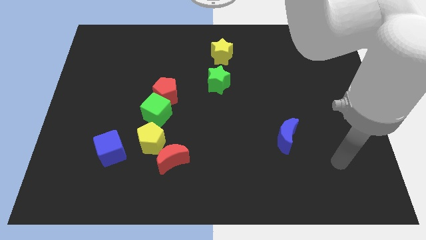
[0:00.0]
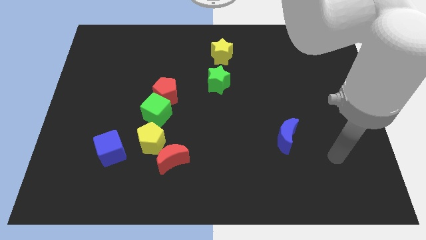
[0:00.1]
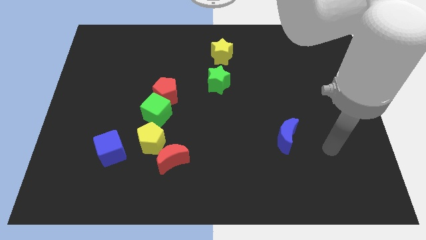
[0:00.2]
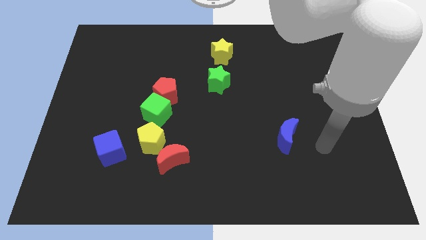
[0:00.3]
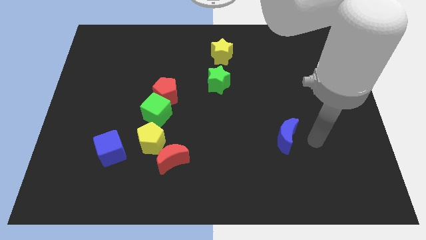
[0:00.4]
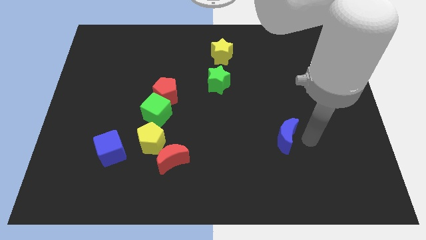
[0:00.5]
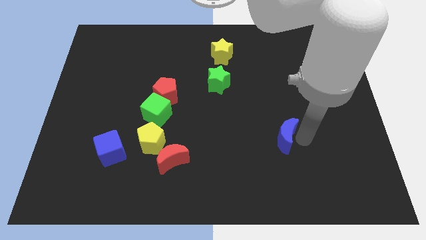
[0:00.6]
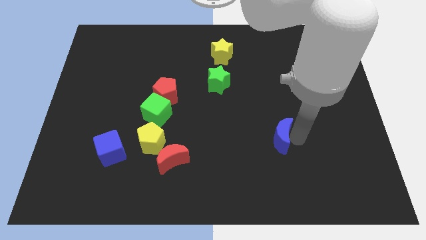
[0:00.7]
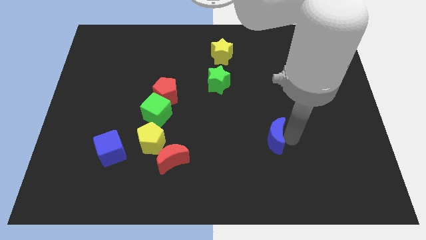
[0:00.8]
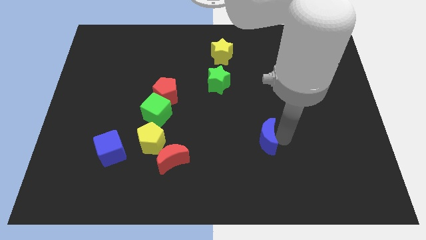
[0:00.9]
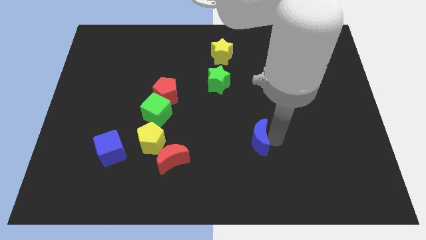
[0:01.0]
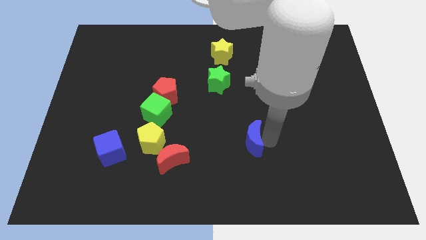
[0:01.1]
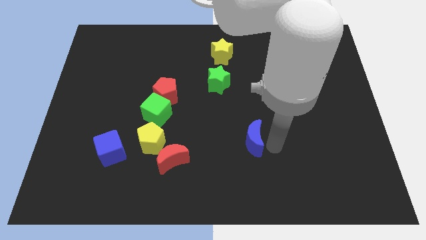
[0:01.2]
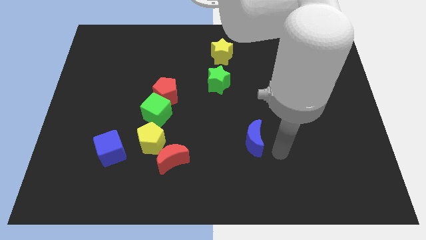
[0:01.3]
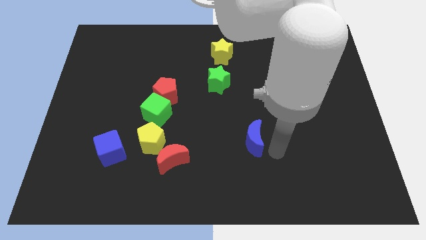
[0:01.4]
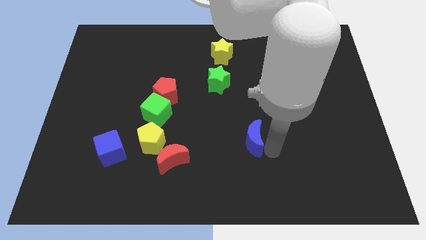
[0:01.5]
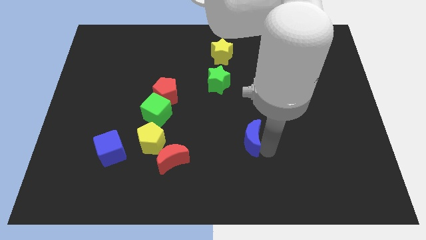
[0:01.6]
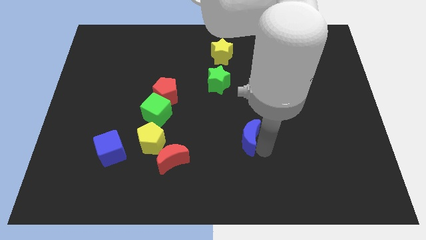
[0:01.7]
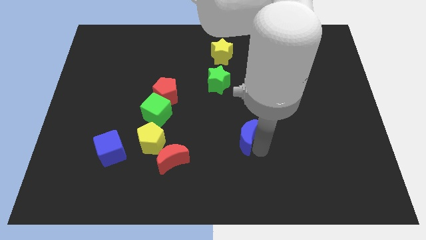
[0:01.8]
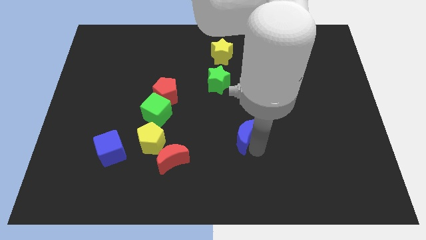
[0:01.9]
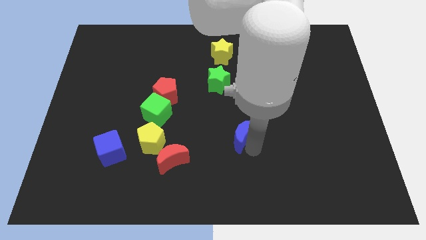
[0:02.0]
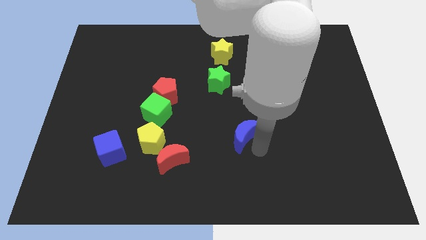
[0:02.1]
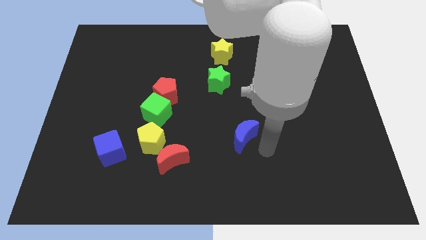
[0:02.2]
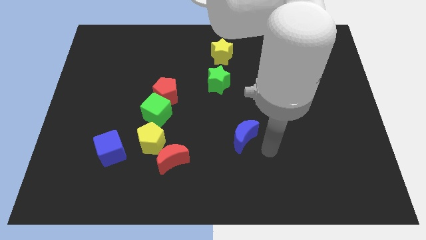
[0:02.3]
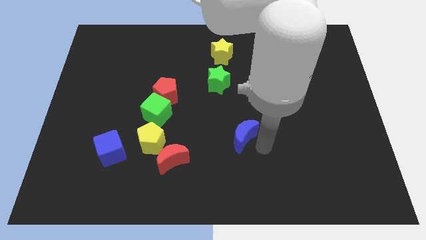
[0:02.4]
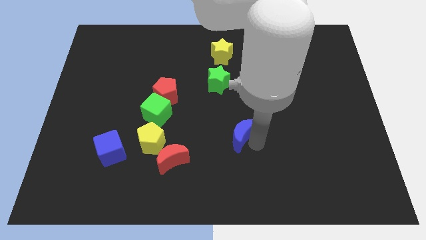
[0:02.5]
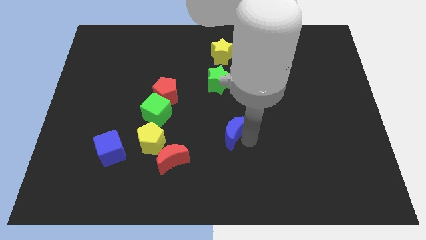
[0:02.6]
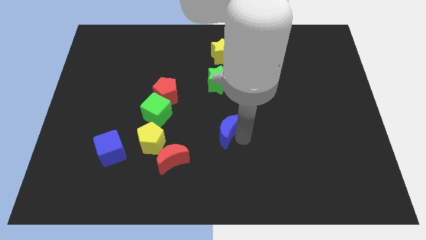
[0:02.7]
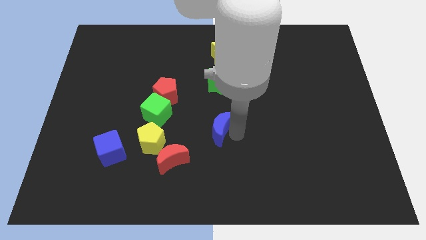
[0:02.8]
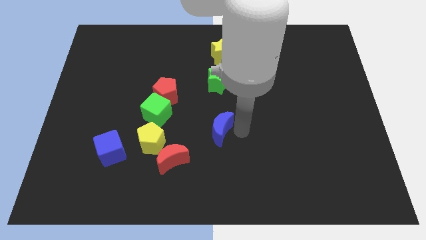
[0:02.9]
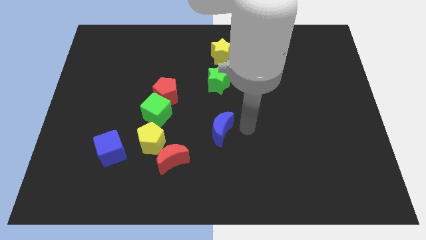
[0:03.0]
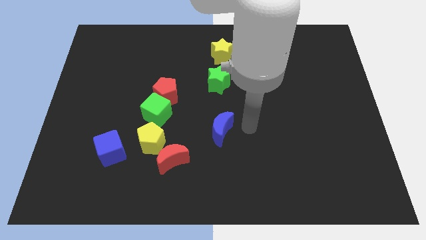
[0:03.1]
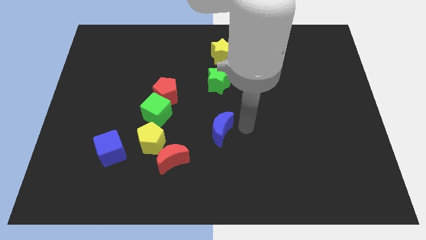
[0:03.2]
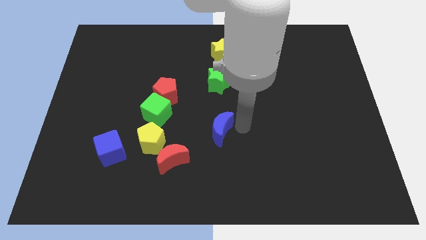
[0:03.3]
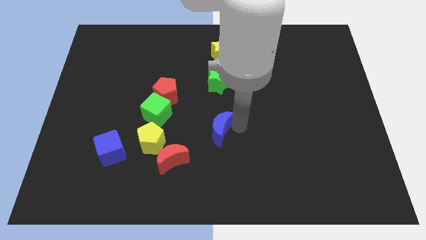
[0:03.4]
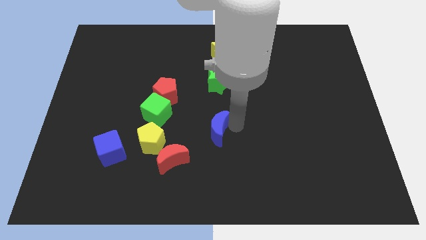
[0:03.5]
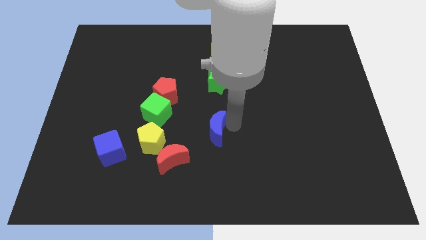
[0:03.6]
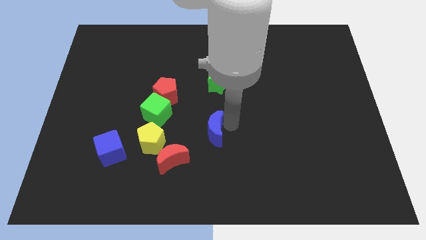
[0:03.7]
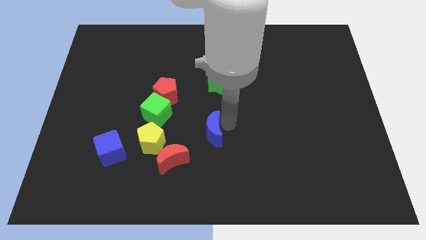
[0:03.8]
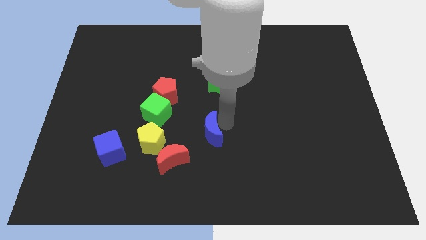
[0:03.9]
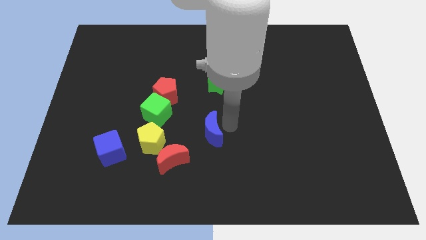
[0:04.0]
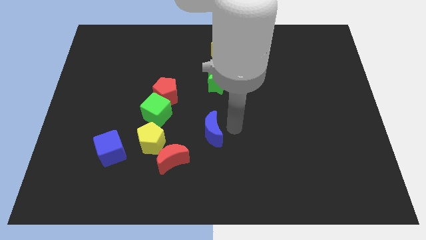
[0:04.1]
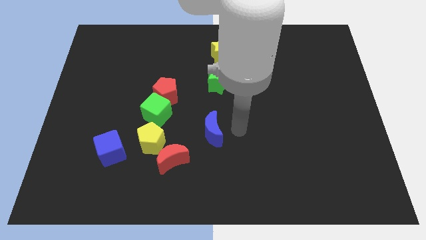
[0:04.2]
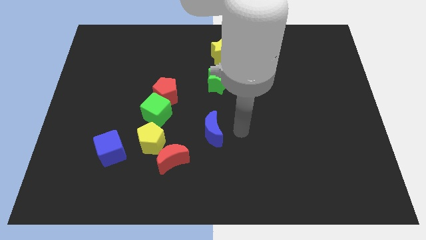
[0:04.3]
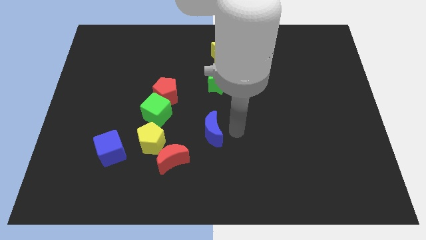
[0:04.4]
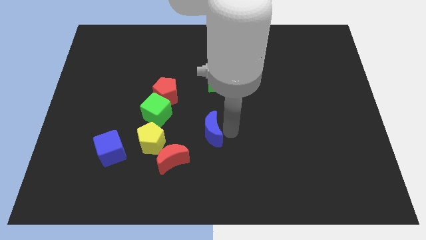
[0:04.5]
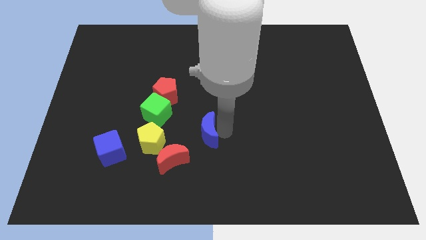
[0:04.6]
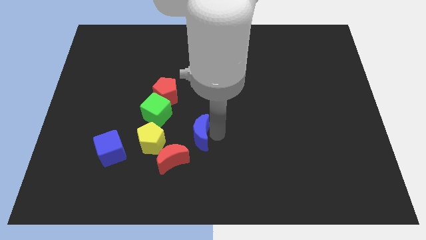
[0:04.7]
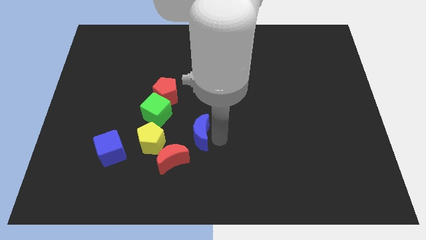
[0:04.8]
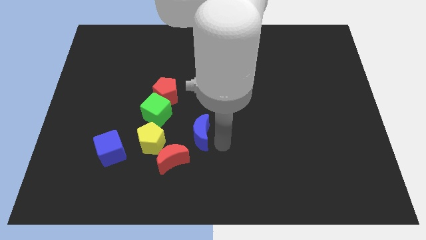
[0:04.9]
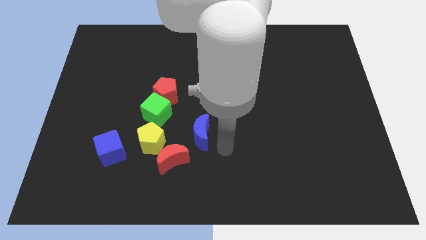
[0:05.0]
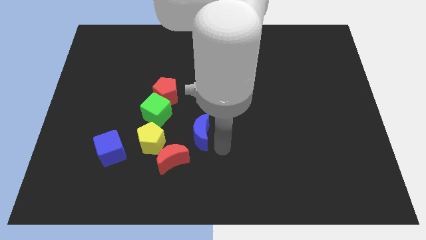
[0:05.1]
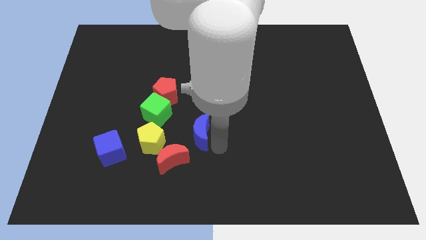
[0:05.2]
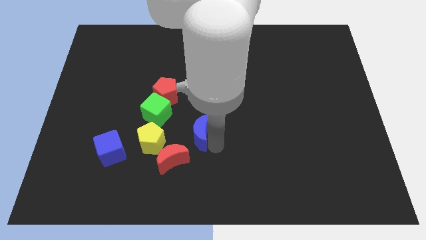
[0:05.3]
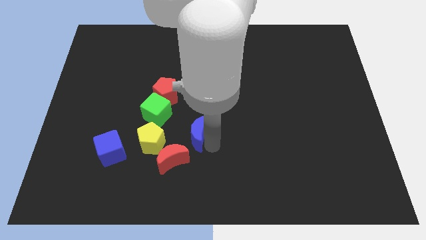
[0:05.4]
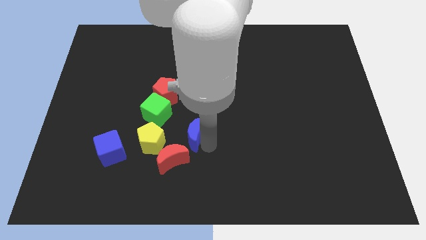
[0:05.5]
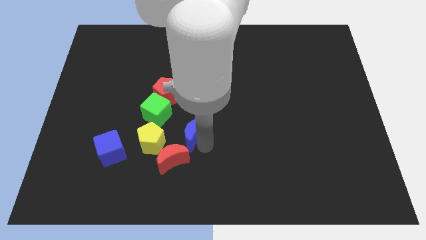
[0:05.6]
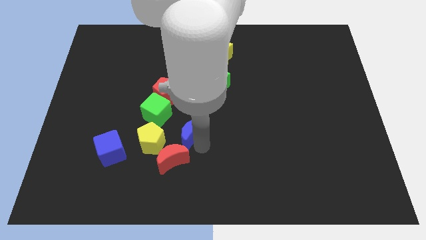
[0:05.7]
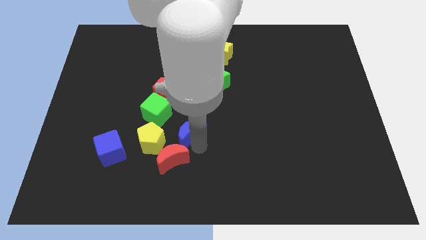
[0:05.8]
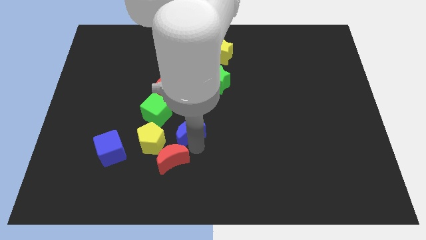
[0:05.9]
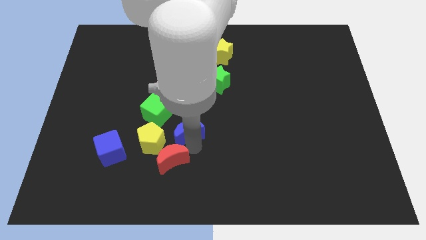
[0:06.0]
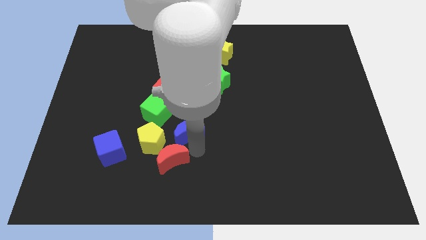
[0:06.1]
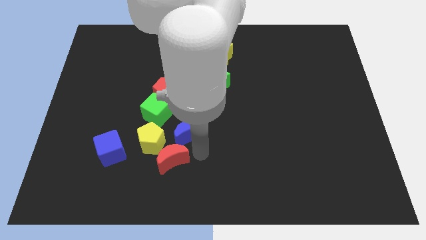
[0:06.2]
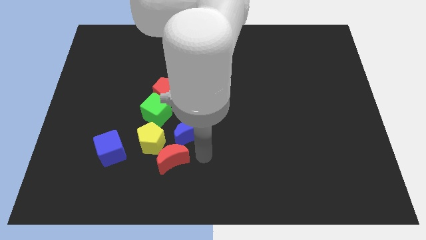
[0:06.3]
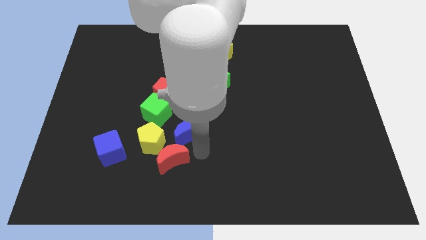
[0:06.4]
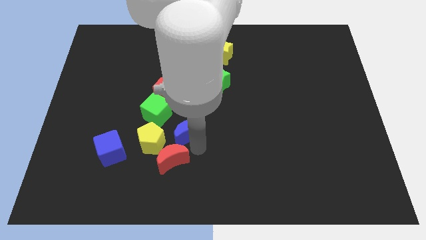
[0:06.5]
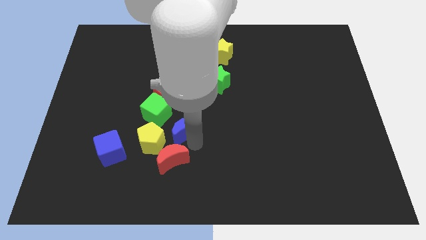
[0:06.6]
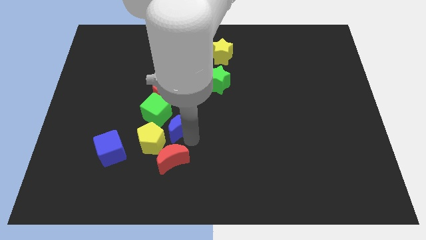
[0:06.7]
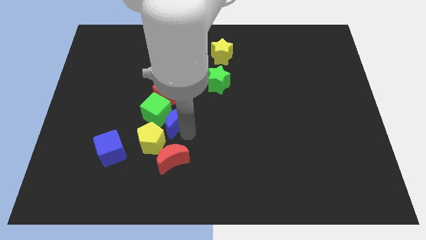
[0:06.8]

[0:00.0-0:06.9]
slide the blue moon to the green cube
